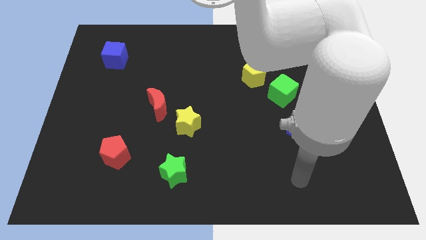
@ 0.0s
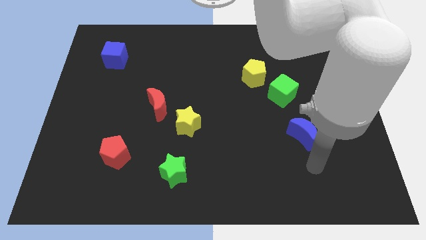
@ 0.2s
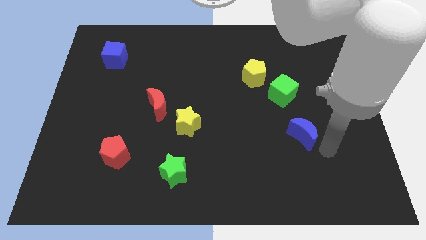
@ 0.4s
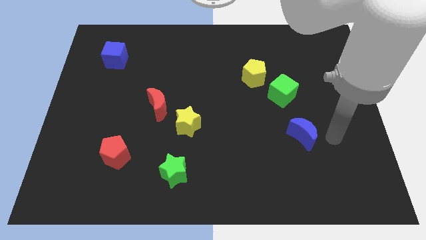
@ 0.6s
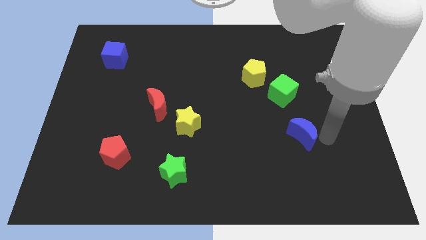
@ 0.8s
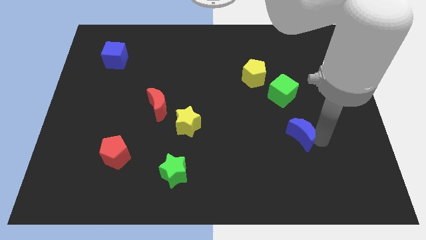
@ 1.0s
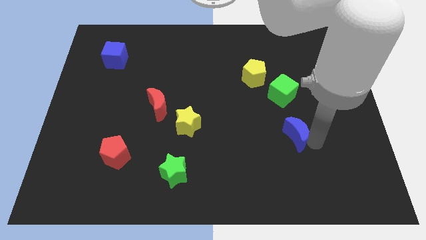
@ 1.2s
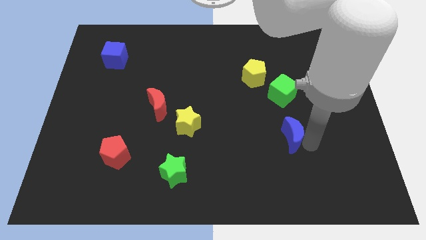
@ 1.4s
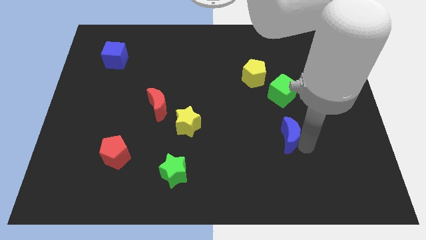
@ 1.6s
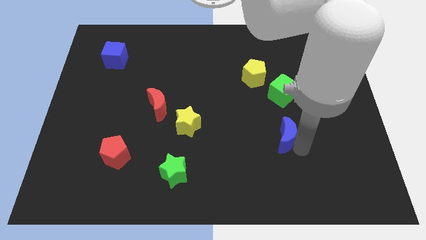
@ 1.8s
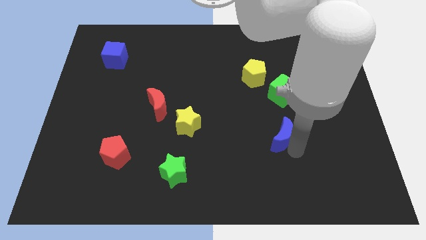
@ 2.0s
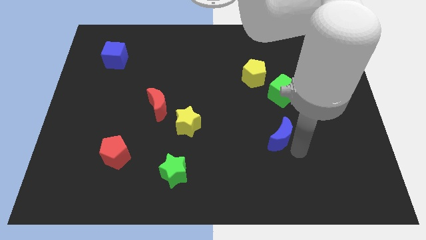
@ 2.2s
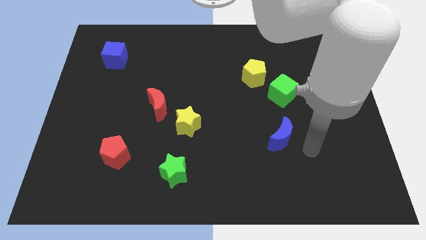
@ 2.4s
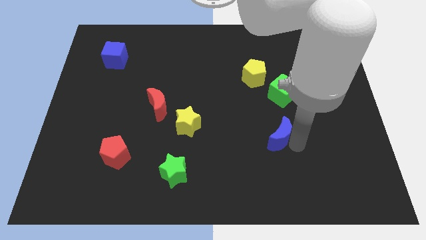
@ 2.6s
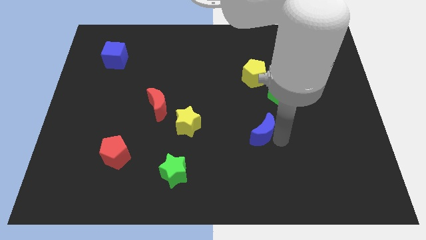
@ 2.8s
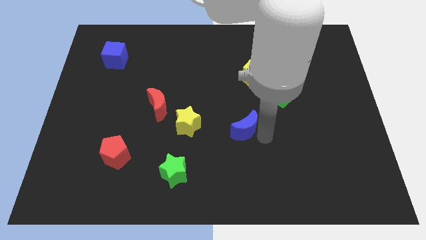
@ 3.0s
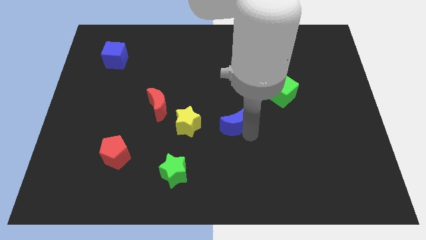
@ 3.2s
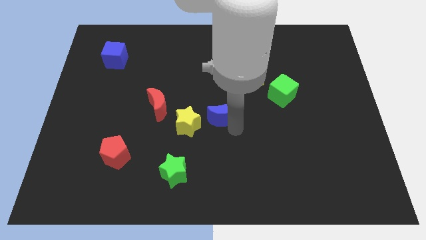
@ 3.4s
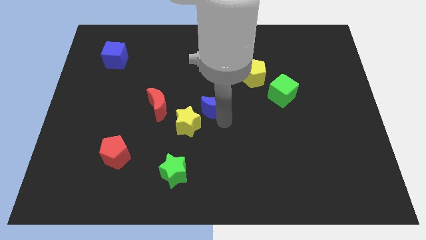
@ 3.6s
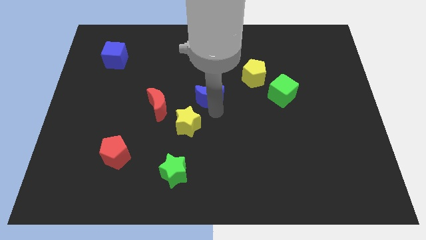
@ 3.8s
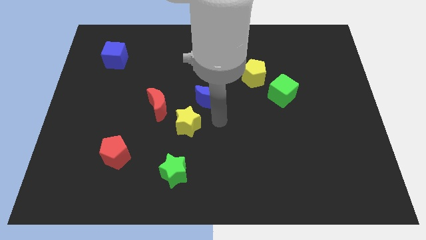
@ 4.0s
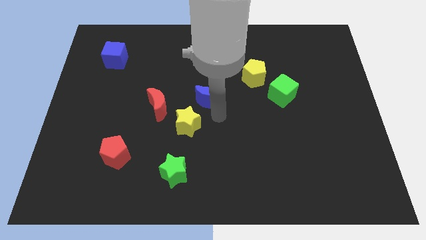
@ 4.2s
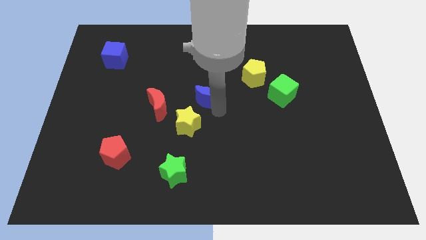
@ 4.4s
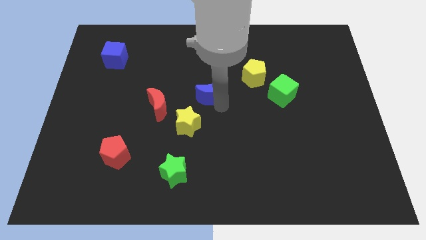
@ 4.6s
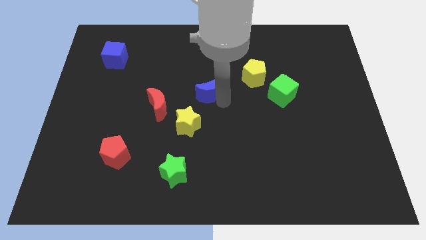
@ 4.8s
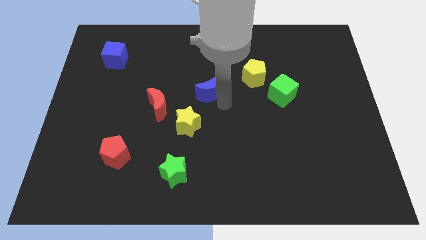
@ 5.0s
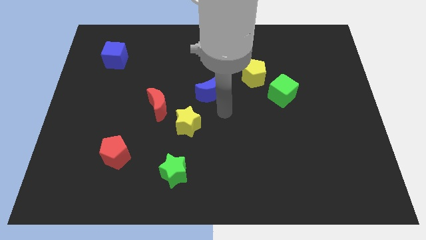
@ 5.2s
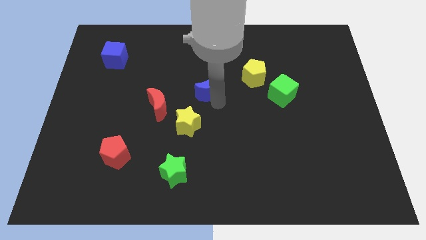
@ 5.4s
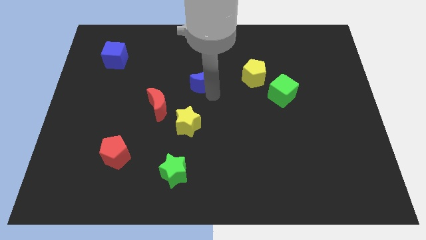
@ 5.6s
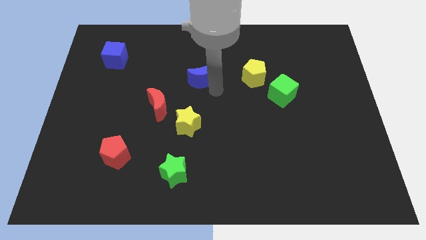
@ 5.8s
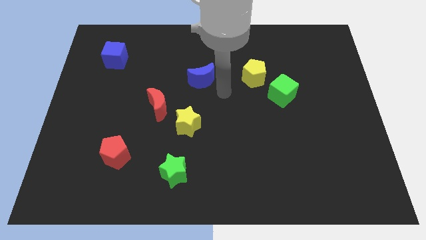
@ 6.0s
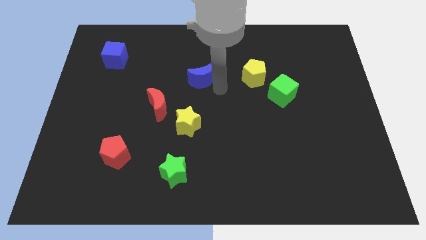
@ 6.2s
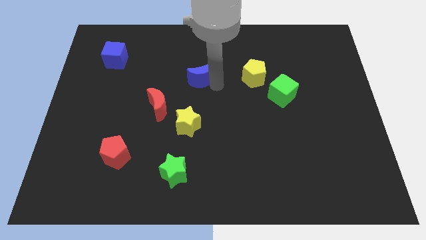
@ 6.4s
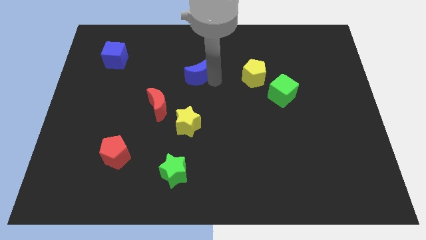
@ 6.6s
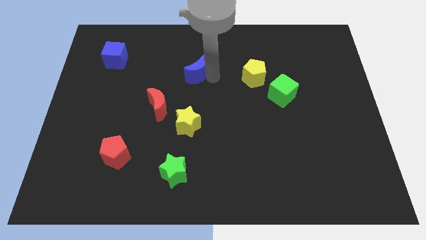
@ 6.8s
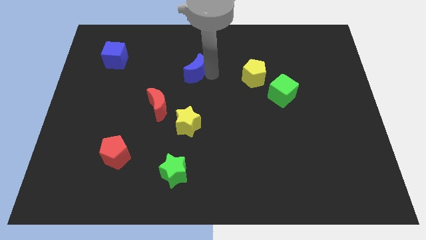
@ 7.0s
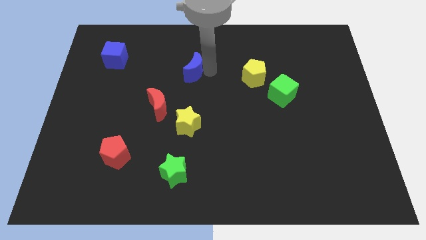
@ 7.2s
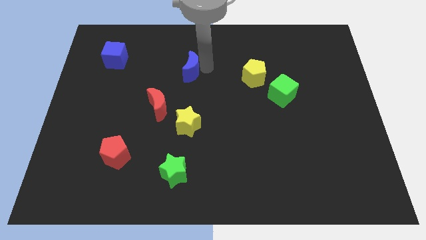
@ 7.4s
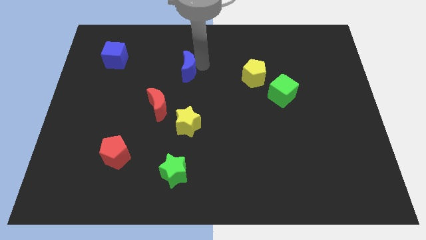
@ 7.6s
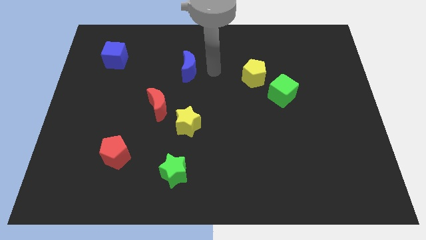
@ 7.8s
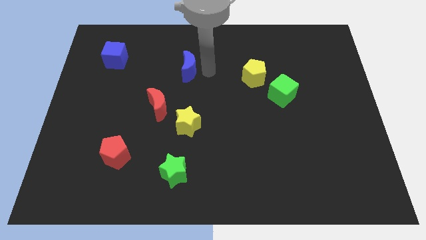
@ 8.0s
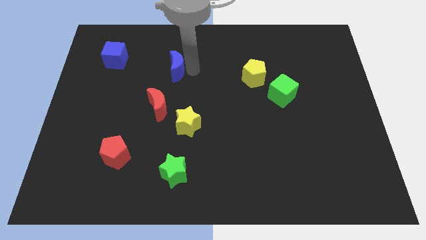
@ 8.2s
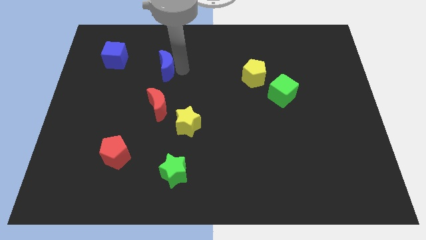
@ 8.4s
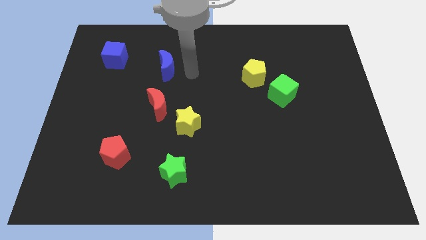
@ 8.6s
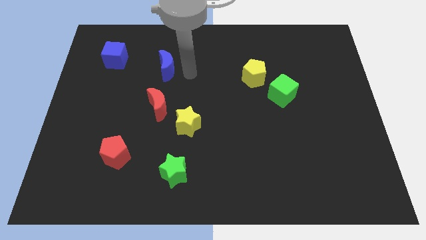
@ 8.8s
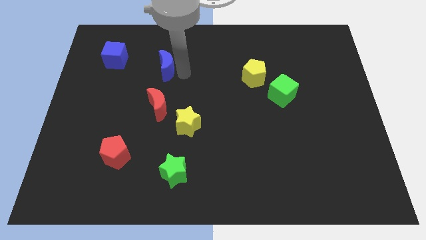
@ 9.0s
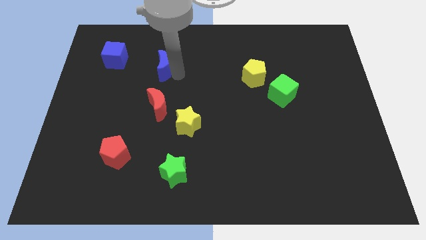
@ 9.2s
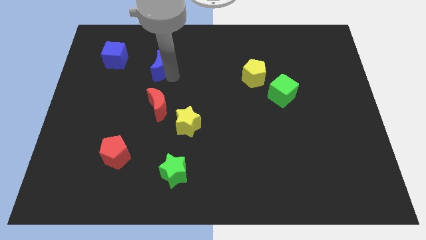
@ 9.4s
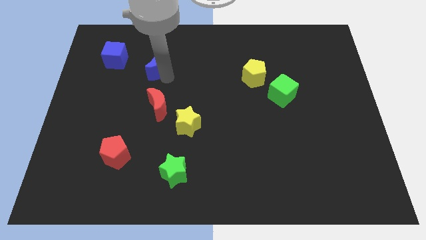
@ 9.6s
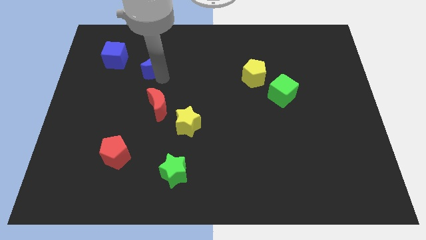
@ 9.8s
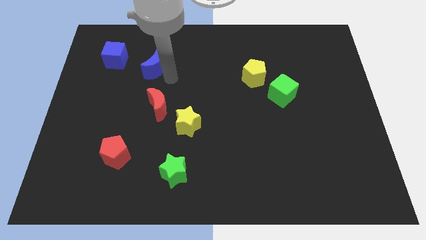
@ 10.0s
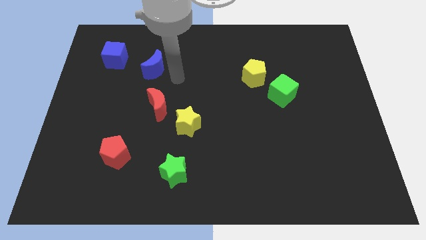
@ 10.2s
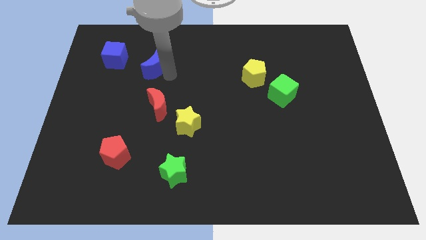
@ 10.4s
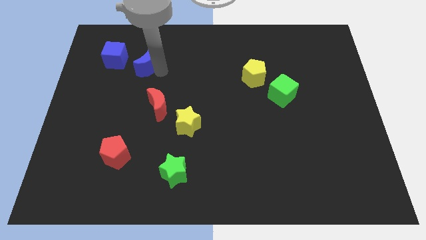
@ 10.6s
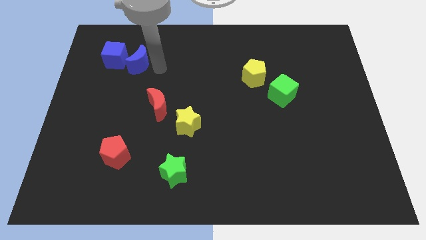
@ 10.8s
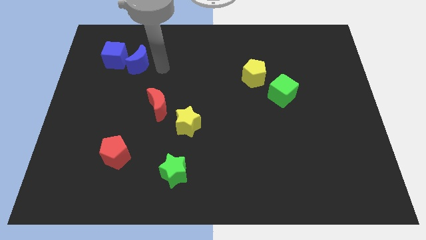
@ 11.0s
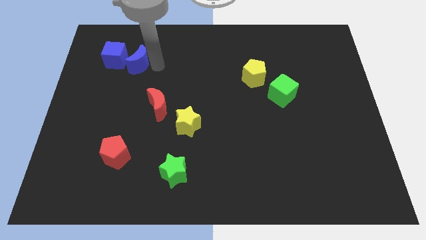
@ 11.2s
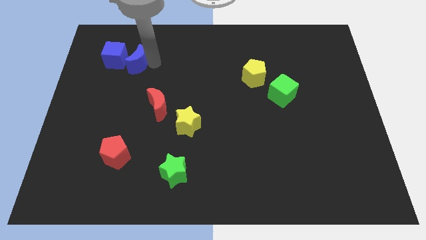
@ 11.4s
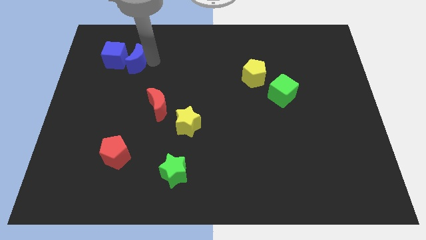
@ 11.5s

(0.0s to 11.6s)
slide the blue moon next to the blue cube

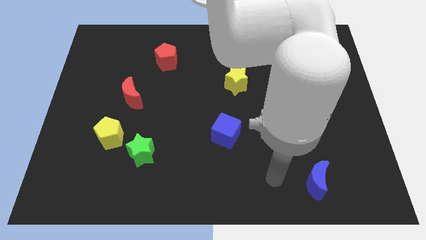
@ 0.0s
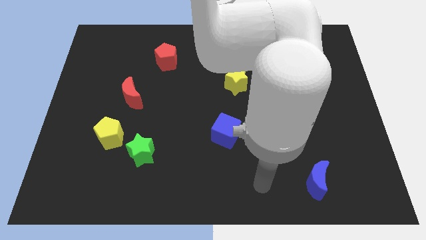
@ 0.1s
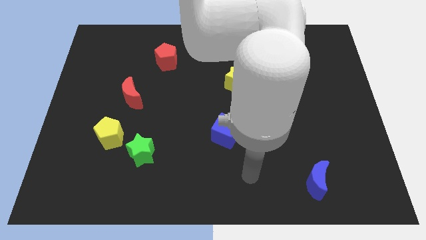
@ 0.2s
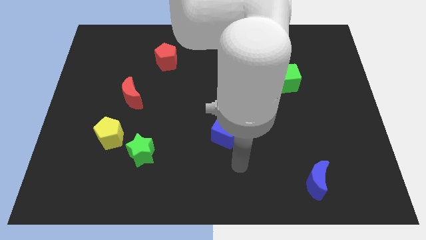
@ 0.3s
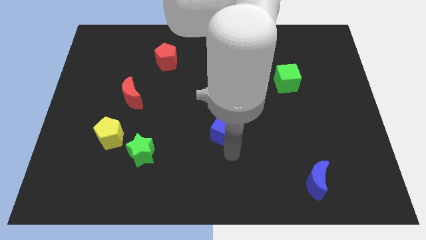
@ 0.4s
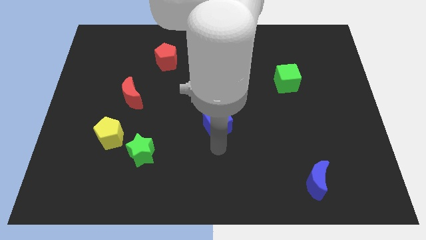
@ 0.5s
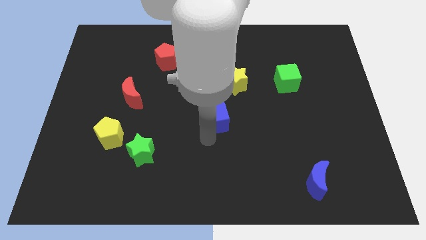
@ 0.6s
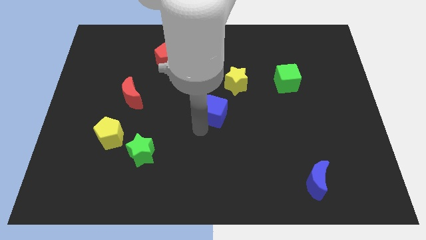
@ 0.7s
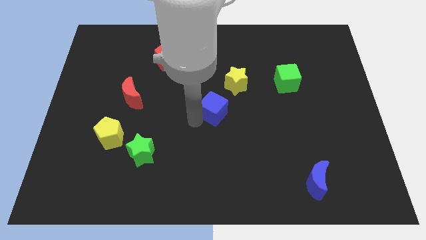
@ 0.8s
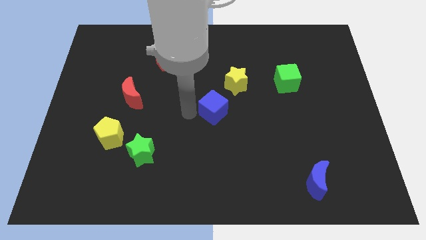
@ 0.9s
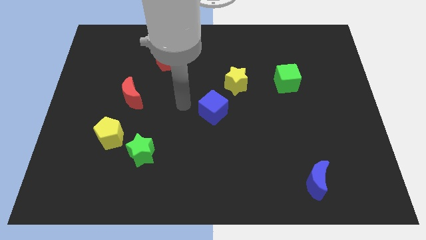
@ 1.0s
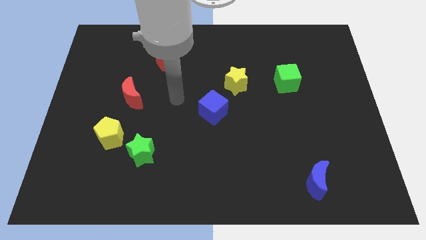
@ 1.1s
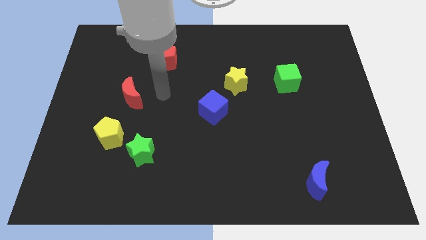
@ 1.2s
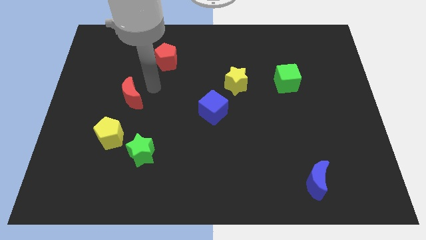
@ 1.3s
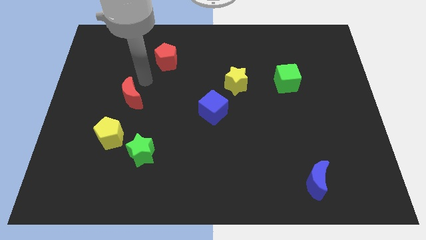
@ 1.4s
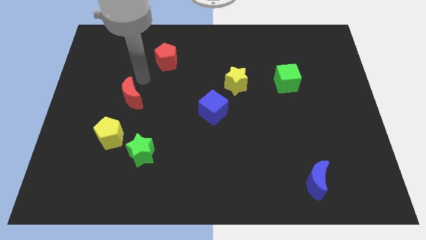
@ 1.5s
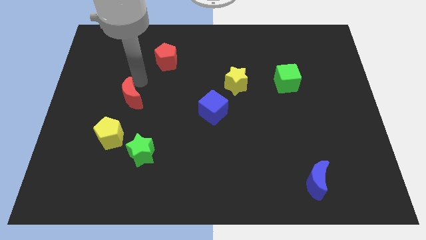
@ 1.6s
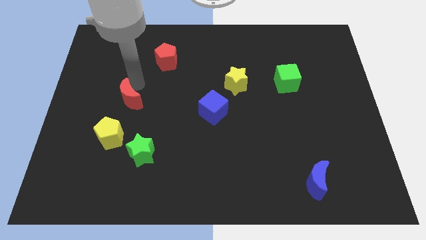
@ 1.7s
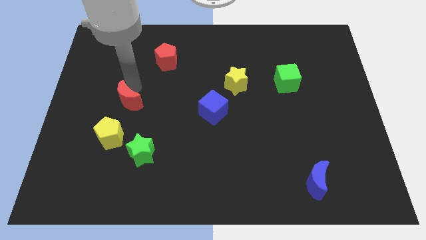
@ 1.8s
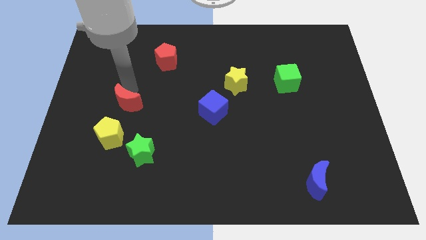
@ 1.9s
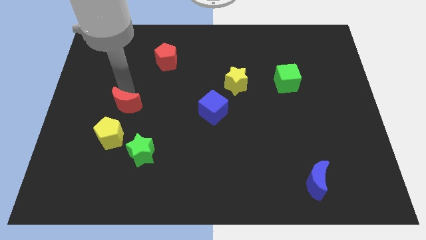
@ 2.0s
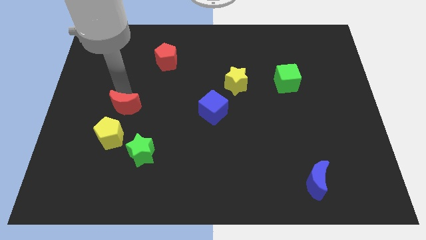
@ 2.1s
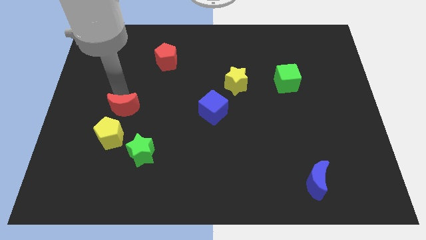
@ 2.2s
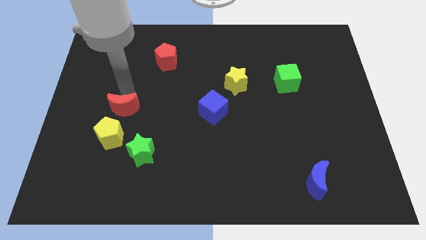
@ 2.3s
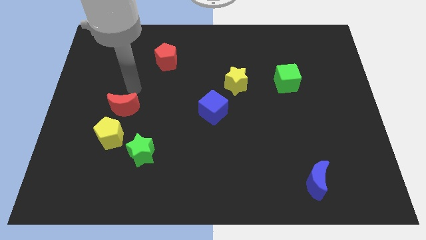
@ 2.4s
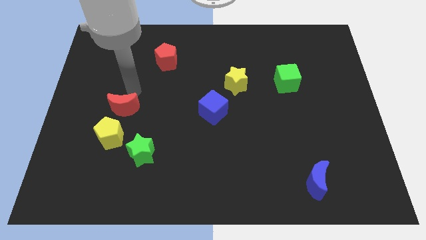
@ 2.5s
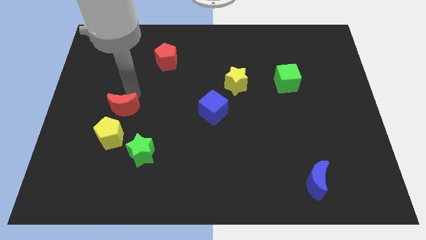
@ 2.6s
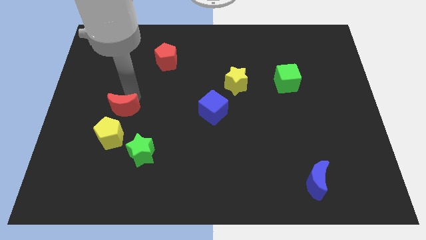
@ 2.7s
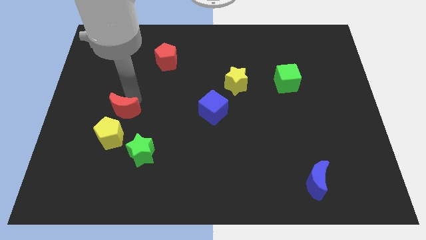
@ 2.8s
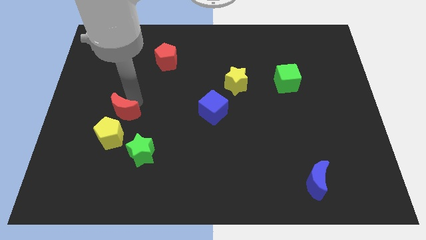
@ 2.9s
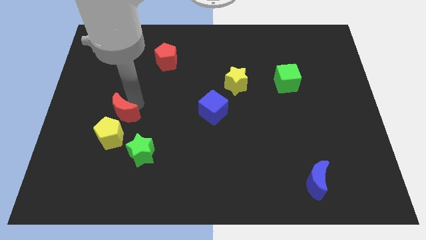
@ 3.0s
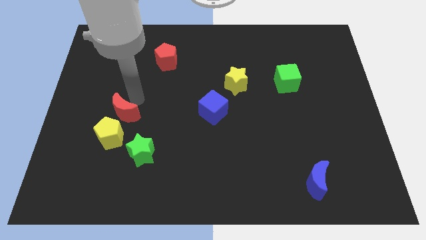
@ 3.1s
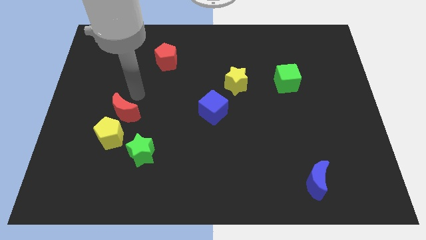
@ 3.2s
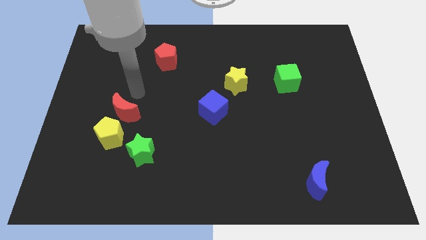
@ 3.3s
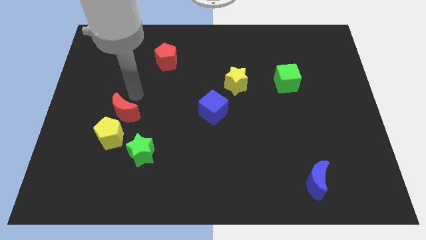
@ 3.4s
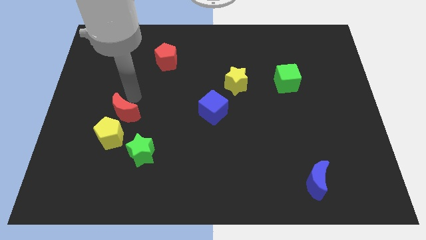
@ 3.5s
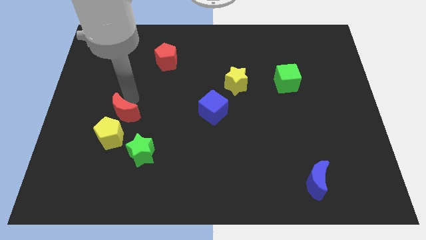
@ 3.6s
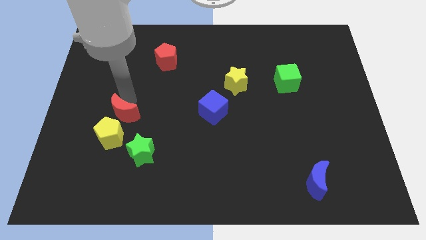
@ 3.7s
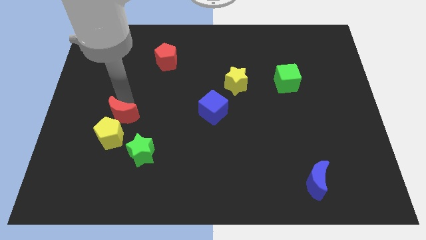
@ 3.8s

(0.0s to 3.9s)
push the red moon to the yellow pentagon
